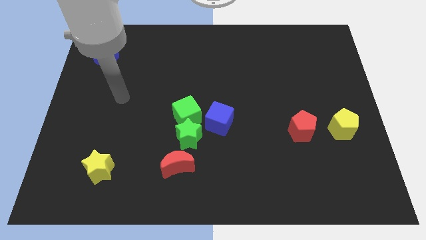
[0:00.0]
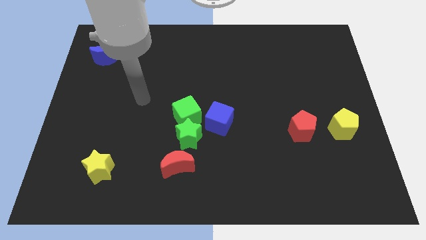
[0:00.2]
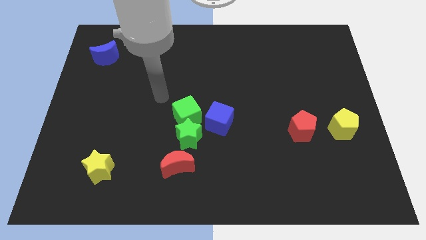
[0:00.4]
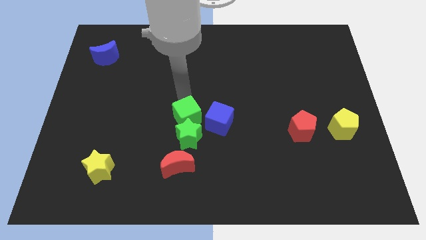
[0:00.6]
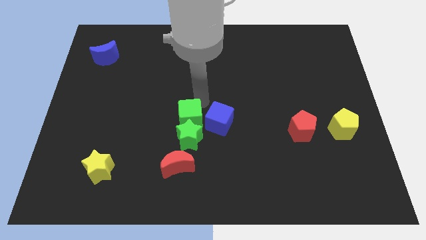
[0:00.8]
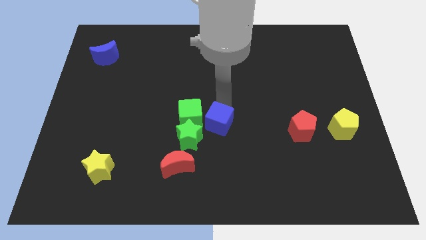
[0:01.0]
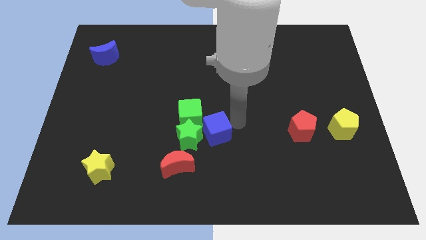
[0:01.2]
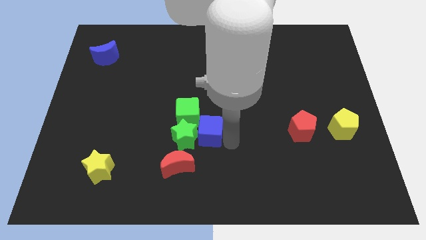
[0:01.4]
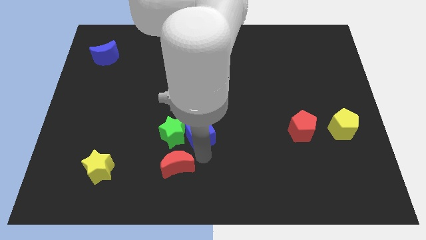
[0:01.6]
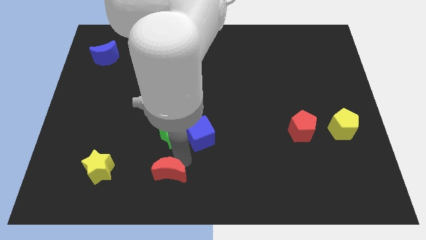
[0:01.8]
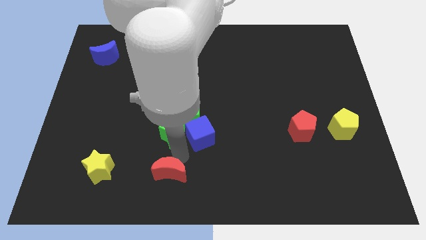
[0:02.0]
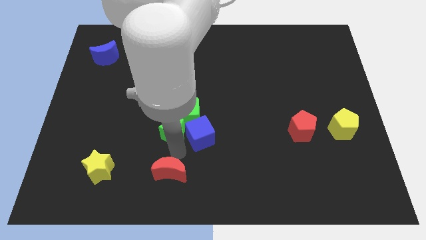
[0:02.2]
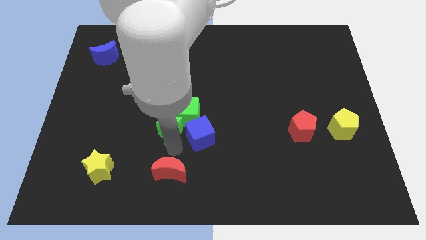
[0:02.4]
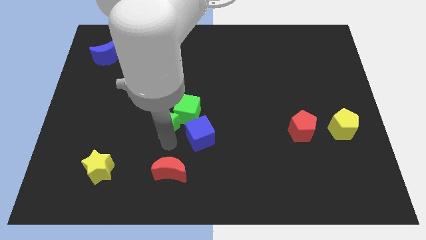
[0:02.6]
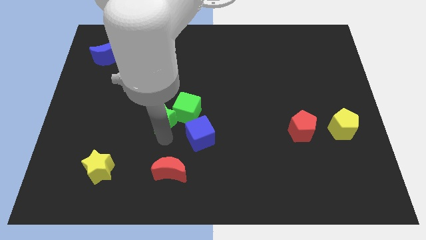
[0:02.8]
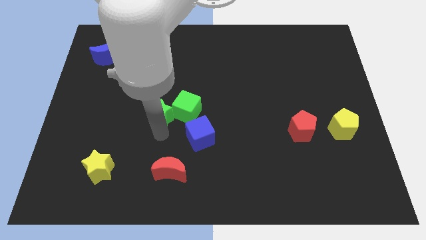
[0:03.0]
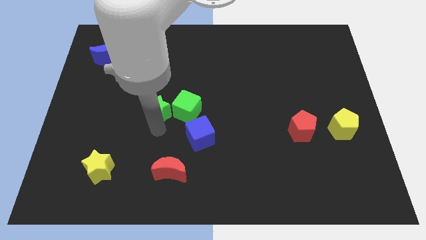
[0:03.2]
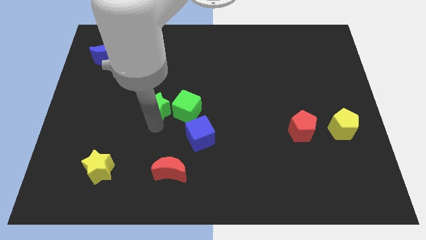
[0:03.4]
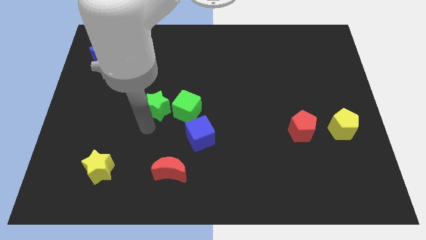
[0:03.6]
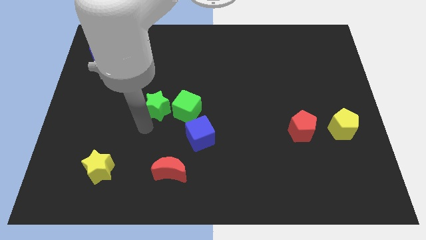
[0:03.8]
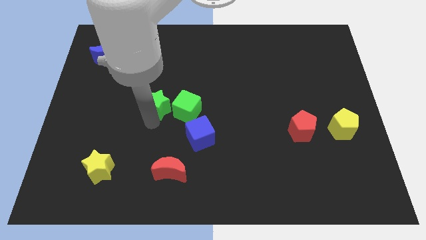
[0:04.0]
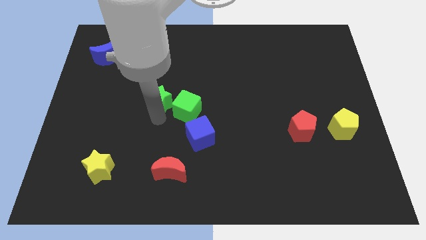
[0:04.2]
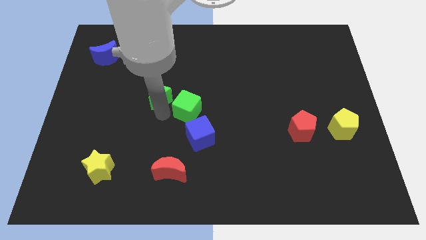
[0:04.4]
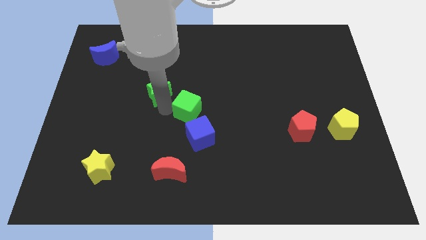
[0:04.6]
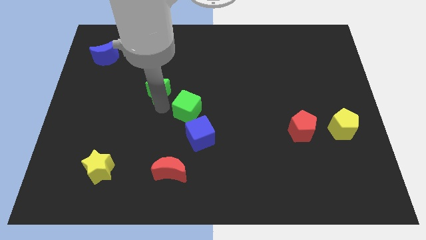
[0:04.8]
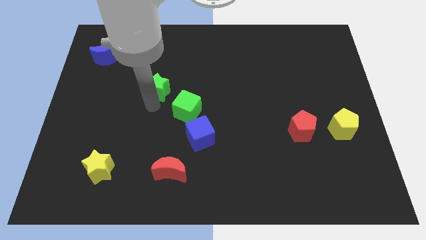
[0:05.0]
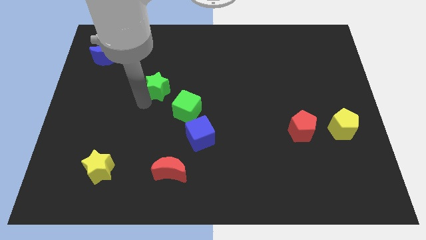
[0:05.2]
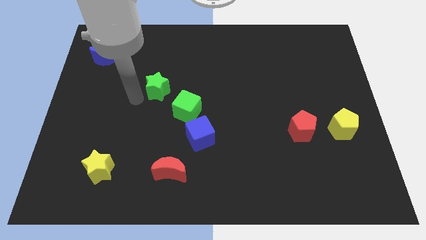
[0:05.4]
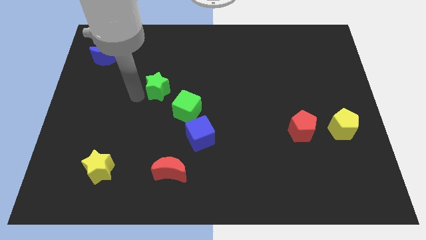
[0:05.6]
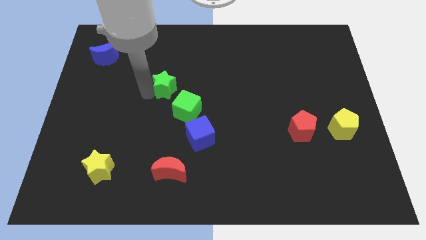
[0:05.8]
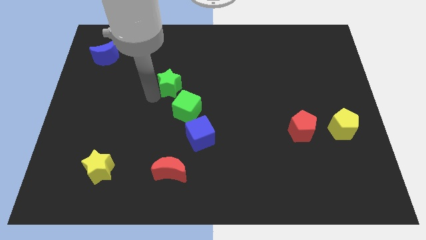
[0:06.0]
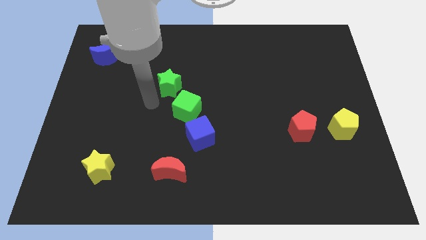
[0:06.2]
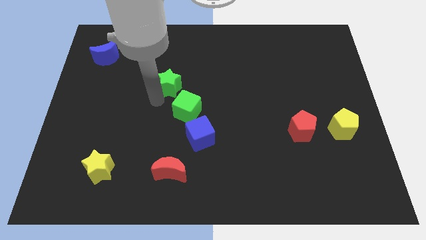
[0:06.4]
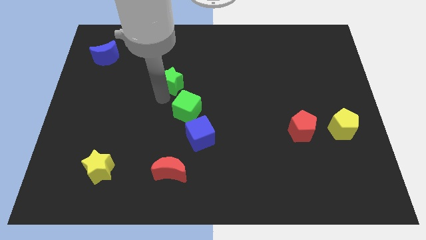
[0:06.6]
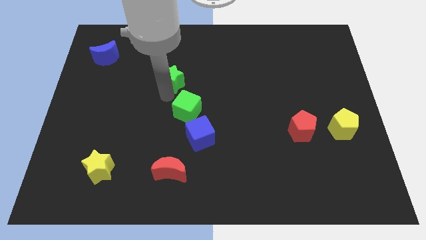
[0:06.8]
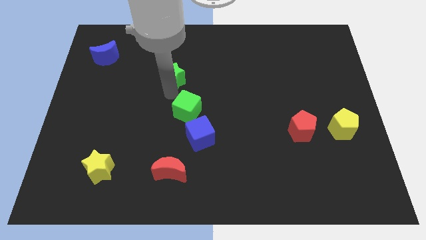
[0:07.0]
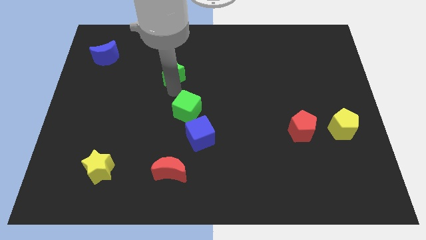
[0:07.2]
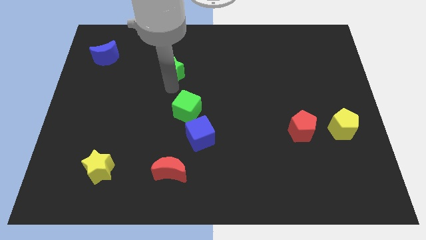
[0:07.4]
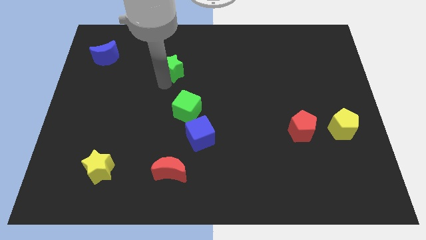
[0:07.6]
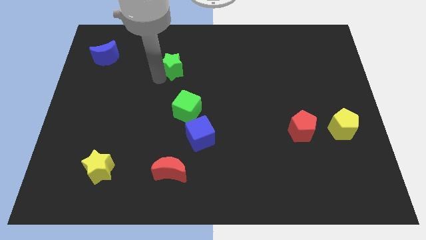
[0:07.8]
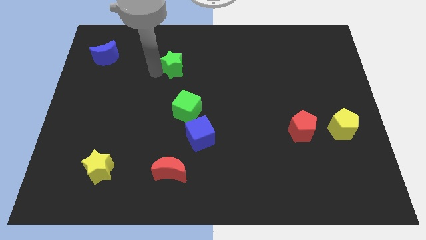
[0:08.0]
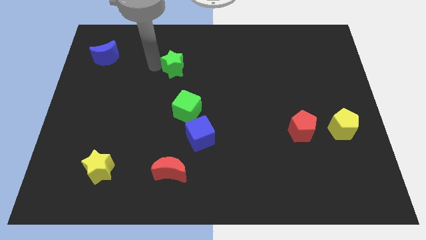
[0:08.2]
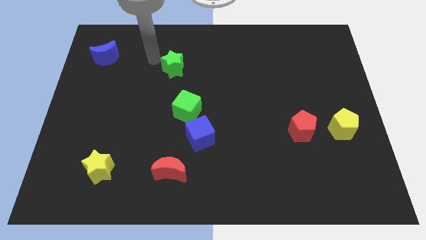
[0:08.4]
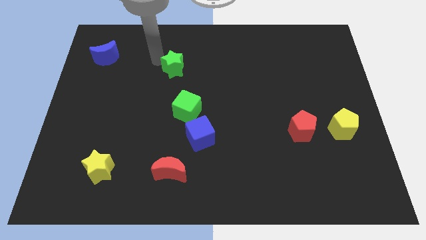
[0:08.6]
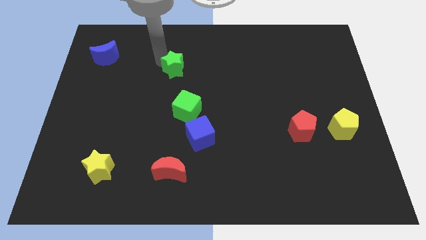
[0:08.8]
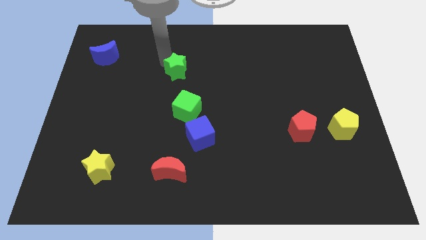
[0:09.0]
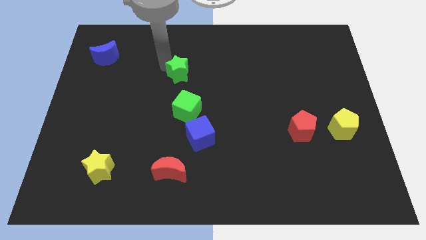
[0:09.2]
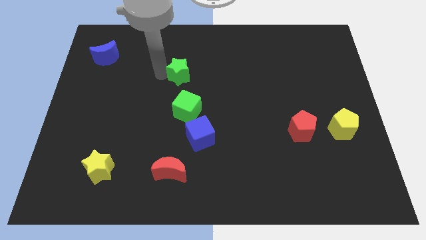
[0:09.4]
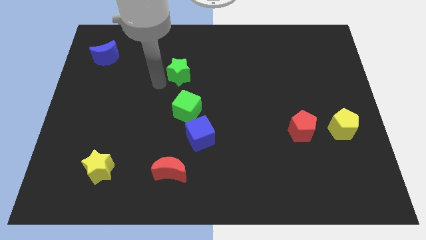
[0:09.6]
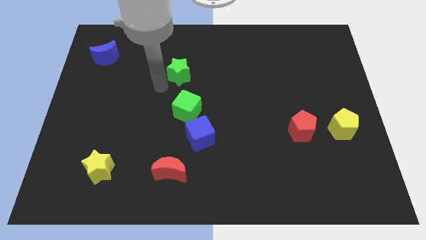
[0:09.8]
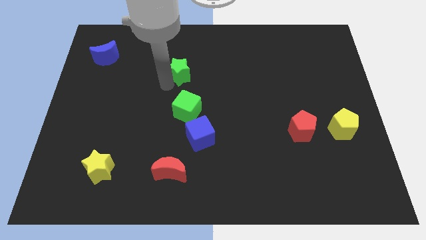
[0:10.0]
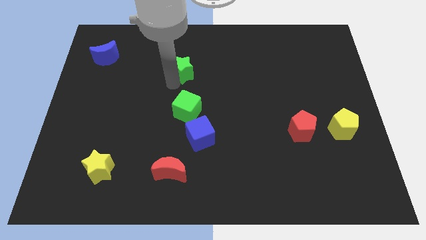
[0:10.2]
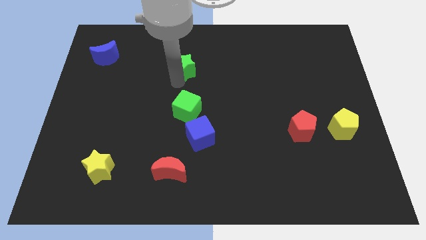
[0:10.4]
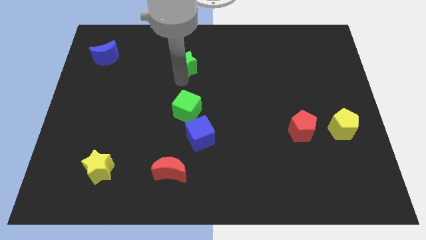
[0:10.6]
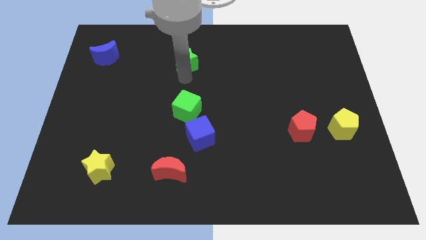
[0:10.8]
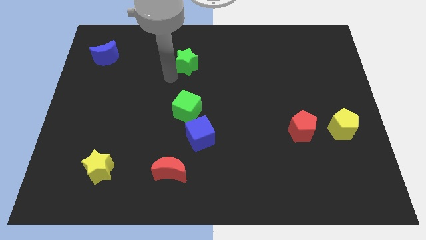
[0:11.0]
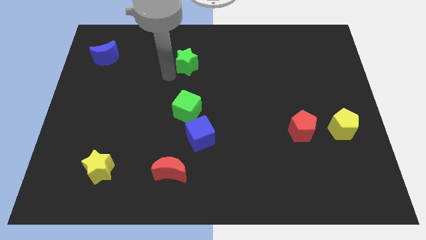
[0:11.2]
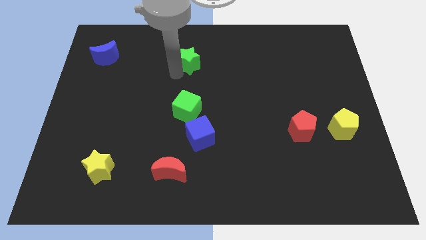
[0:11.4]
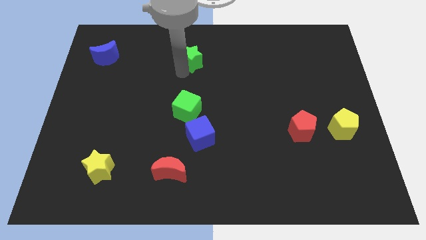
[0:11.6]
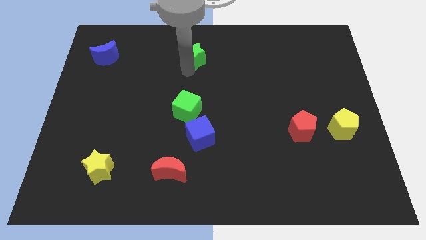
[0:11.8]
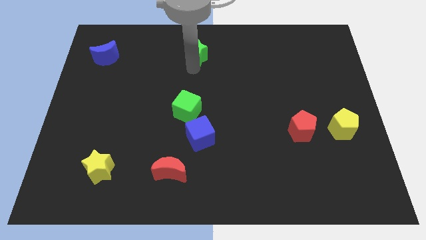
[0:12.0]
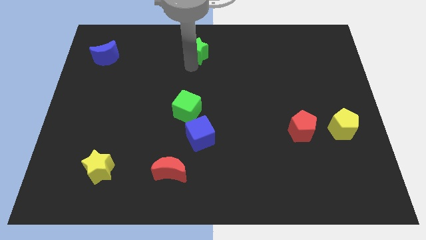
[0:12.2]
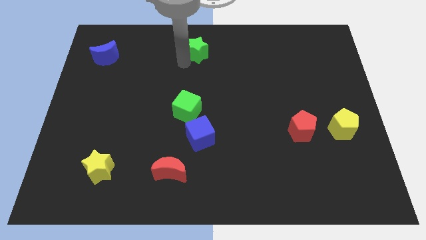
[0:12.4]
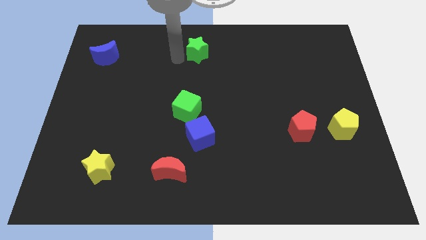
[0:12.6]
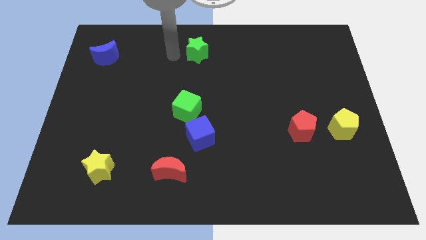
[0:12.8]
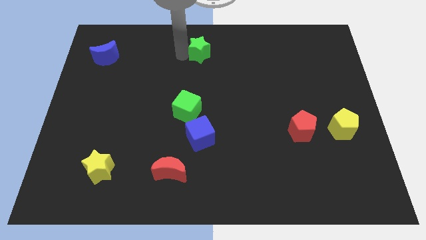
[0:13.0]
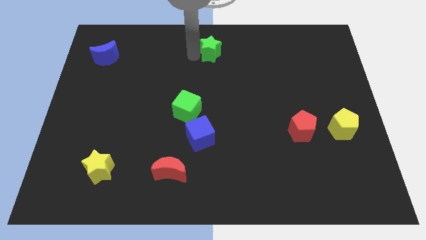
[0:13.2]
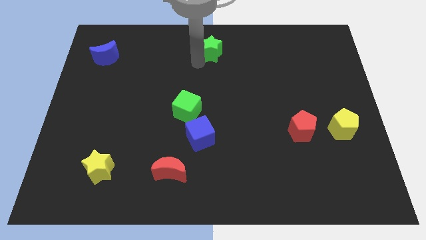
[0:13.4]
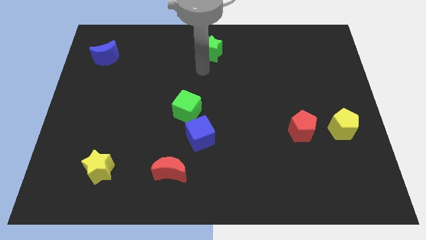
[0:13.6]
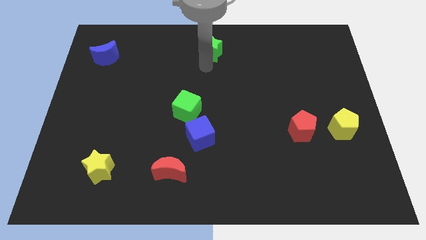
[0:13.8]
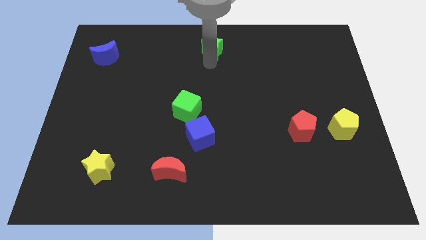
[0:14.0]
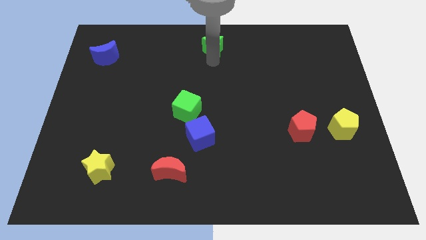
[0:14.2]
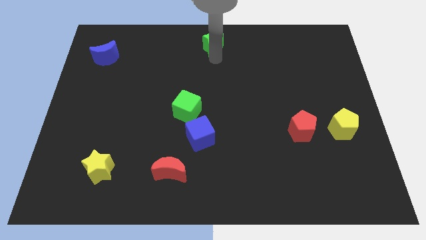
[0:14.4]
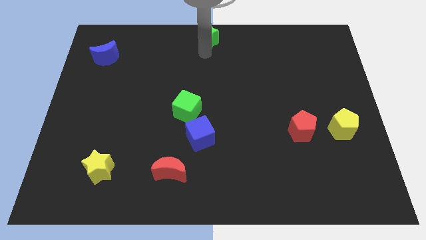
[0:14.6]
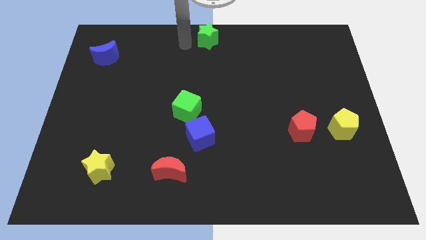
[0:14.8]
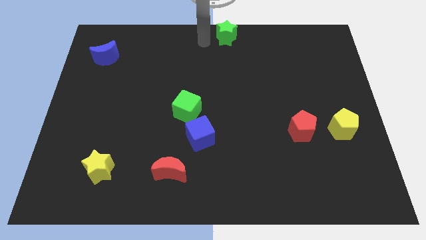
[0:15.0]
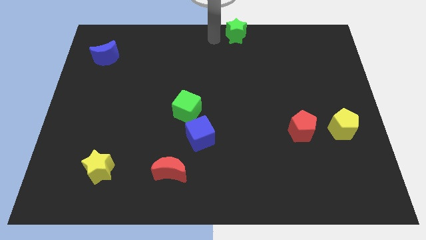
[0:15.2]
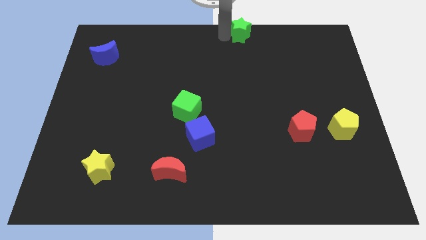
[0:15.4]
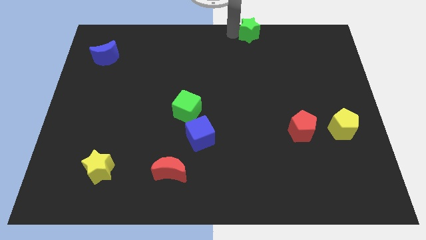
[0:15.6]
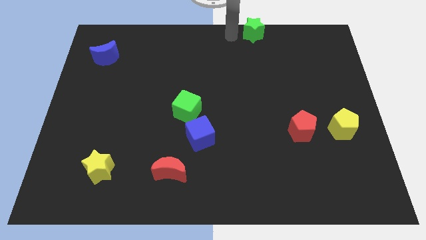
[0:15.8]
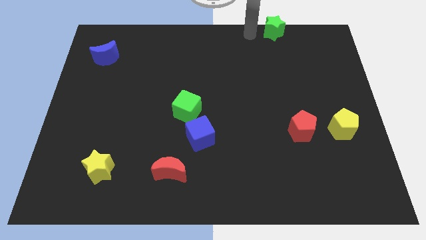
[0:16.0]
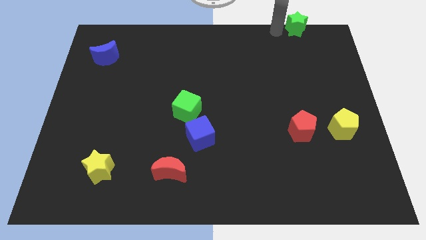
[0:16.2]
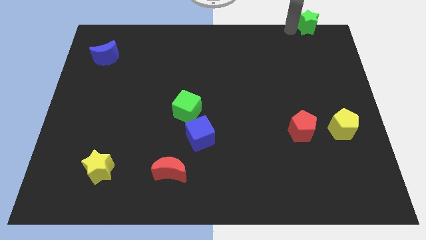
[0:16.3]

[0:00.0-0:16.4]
move the green star to the top right corner
